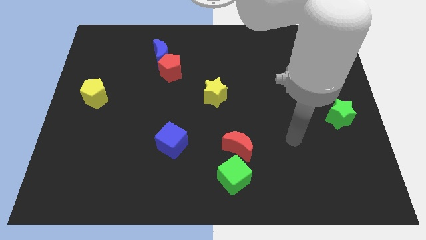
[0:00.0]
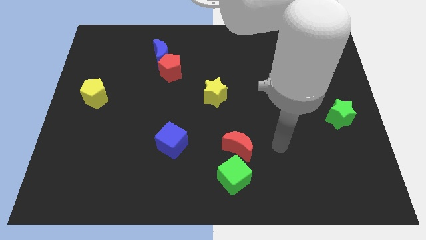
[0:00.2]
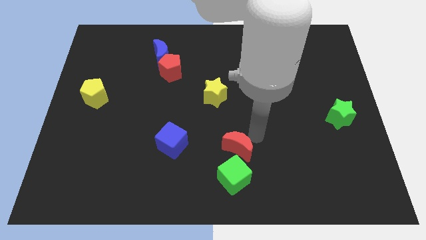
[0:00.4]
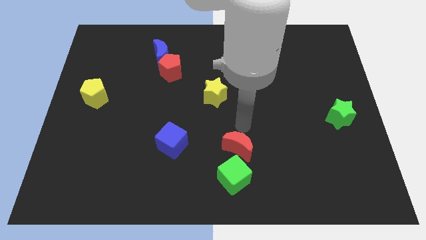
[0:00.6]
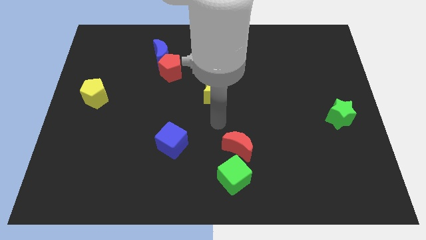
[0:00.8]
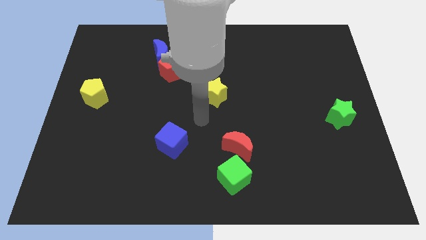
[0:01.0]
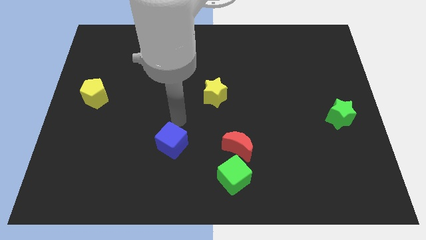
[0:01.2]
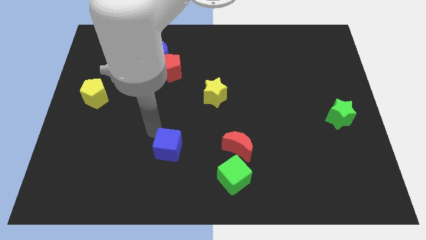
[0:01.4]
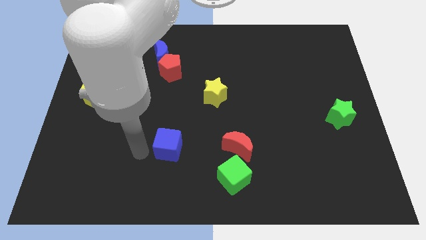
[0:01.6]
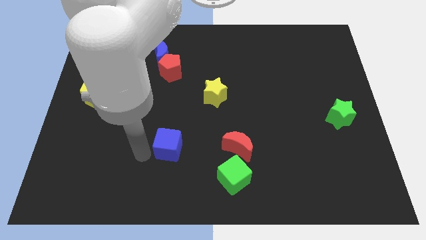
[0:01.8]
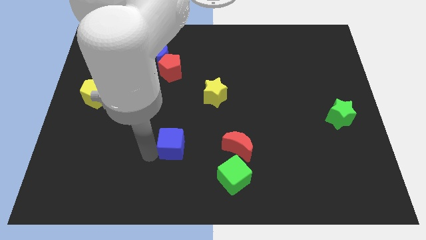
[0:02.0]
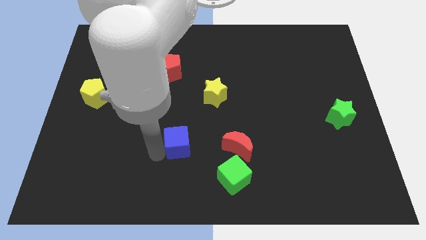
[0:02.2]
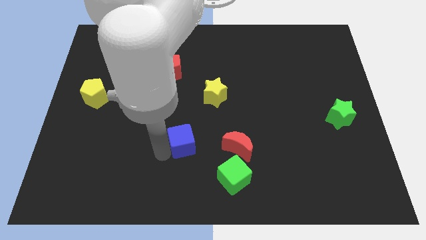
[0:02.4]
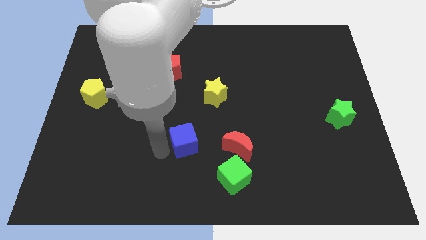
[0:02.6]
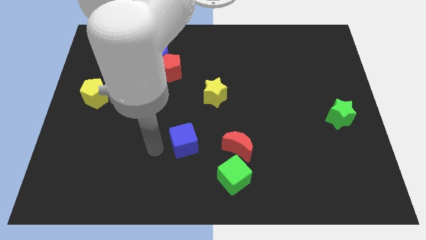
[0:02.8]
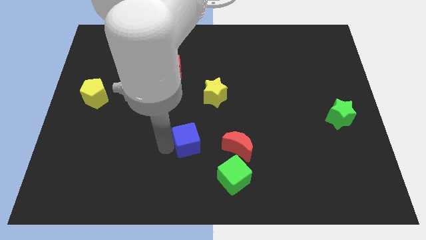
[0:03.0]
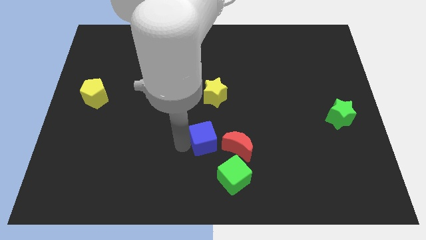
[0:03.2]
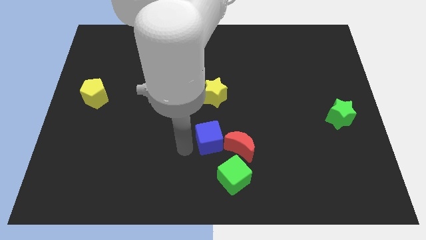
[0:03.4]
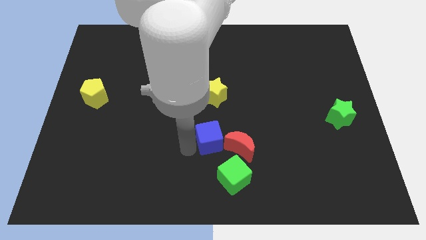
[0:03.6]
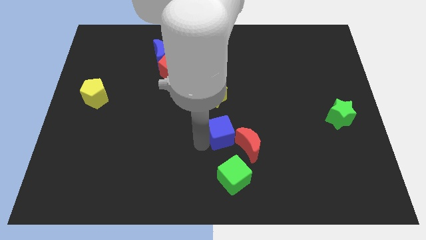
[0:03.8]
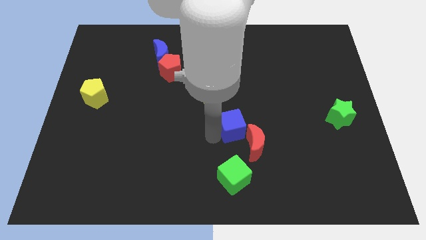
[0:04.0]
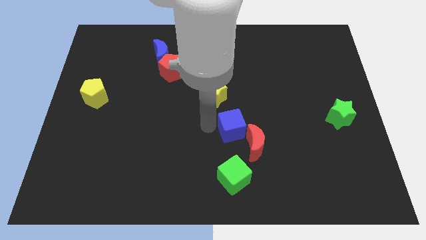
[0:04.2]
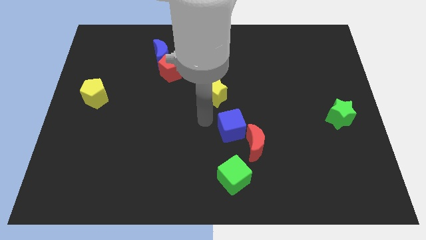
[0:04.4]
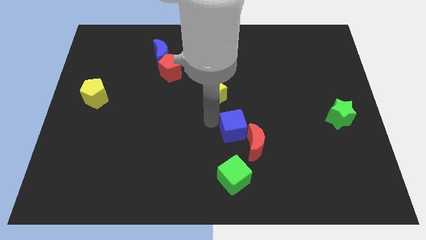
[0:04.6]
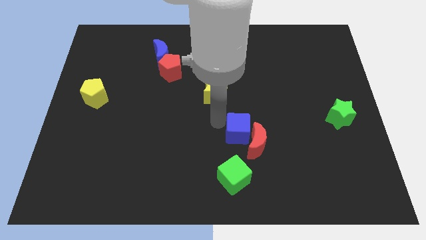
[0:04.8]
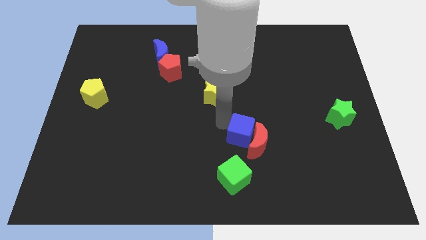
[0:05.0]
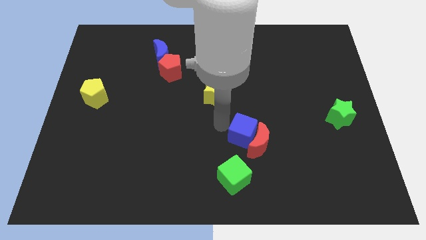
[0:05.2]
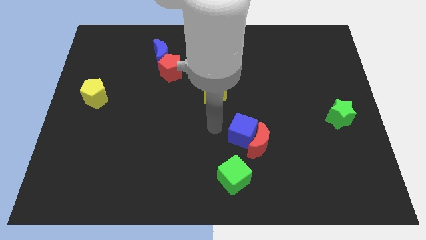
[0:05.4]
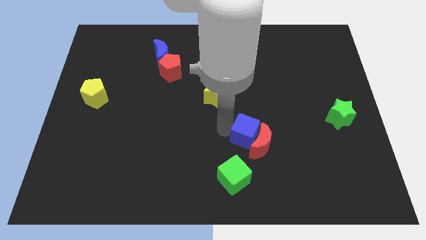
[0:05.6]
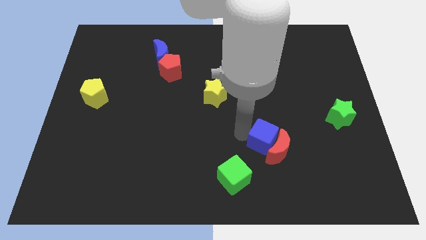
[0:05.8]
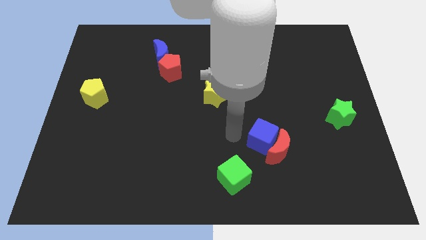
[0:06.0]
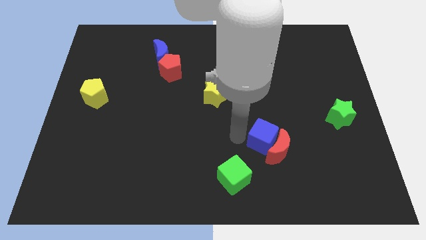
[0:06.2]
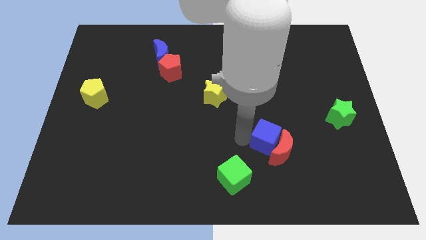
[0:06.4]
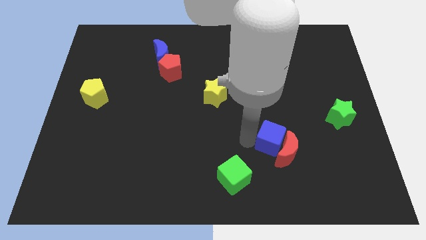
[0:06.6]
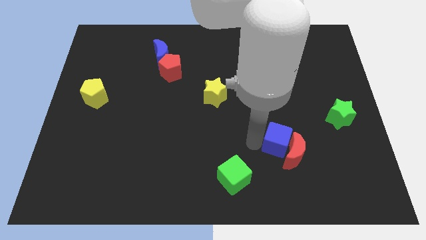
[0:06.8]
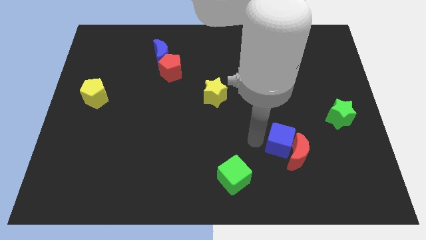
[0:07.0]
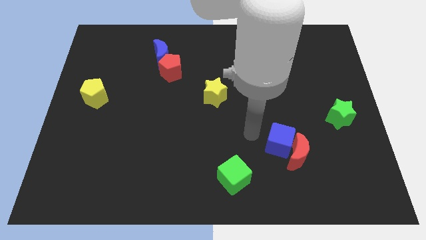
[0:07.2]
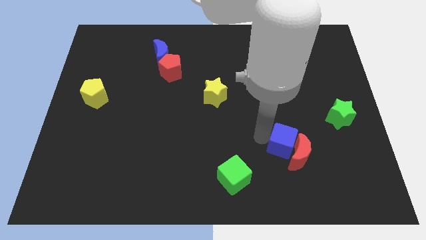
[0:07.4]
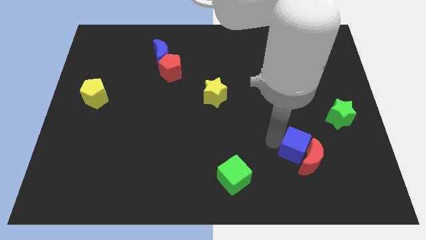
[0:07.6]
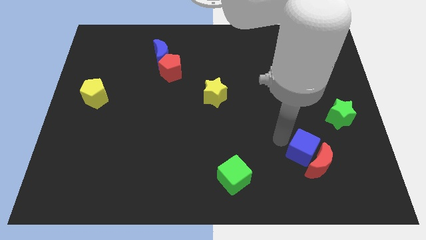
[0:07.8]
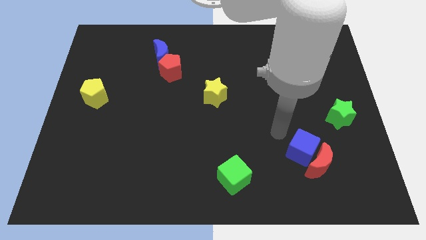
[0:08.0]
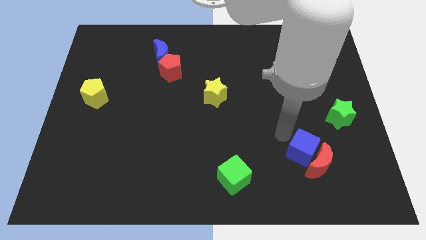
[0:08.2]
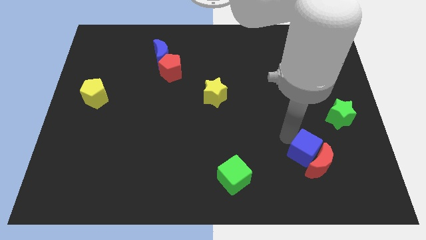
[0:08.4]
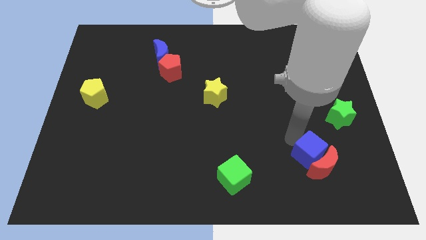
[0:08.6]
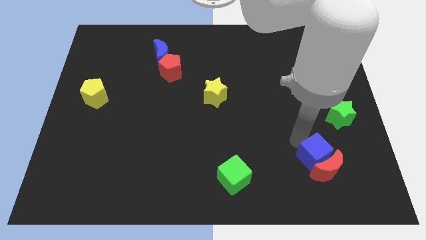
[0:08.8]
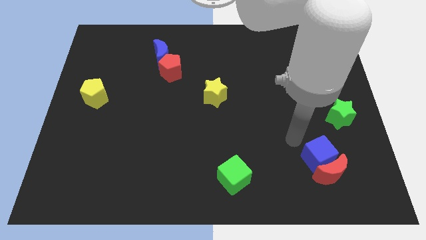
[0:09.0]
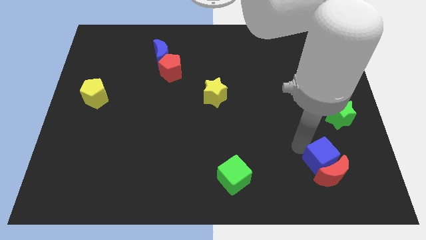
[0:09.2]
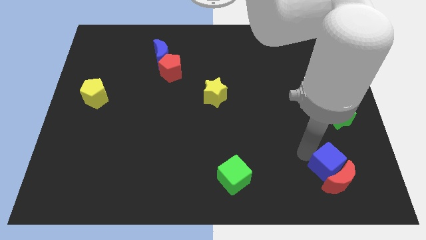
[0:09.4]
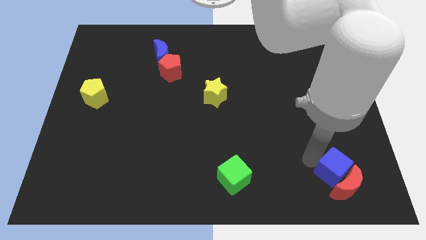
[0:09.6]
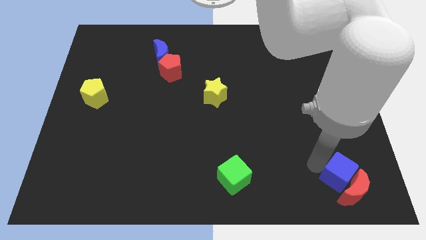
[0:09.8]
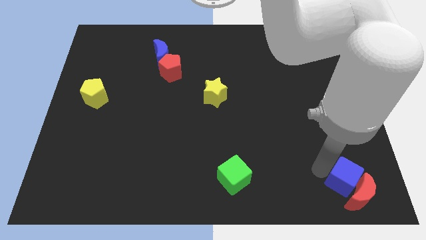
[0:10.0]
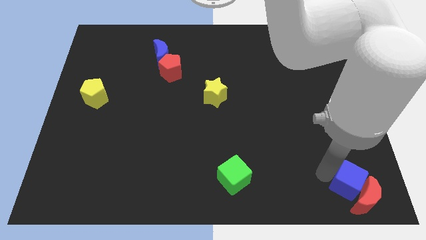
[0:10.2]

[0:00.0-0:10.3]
slide the blue cube to the bottom right

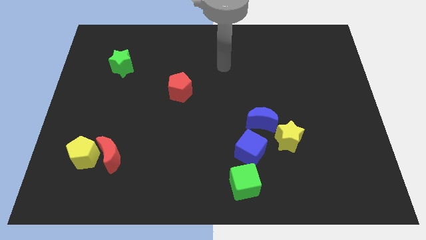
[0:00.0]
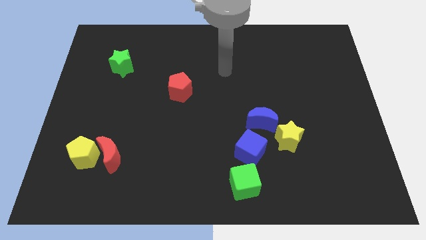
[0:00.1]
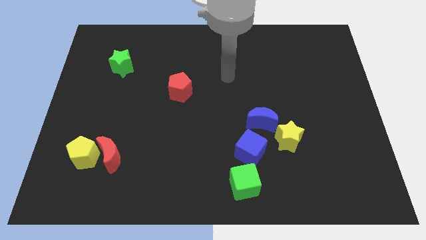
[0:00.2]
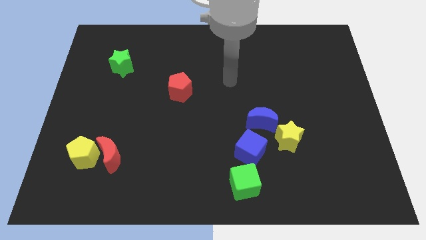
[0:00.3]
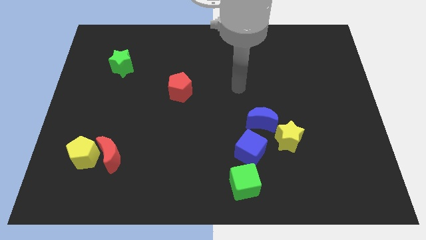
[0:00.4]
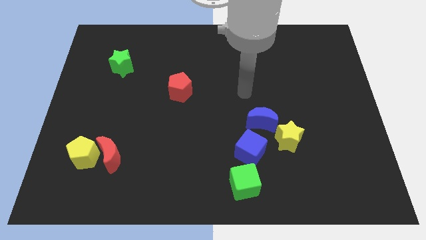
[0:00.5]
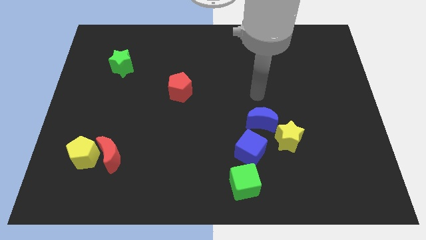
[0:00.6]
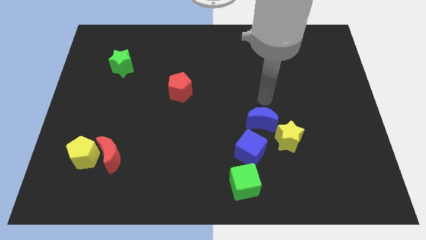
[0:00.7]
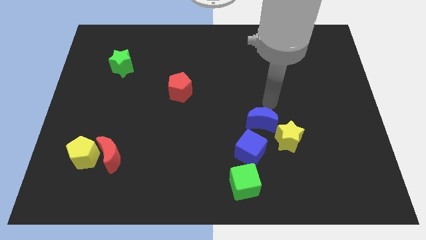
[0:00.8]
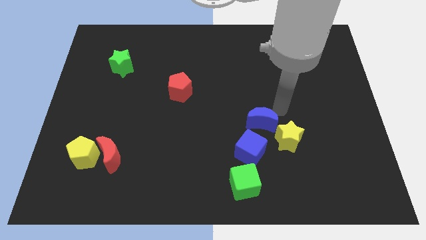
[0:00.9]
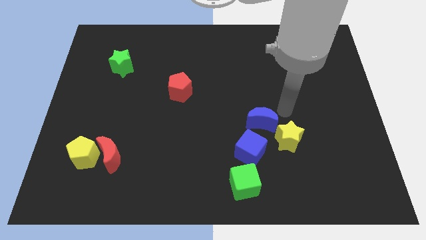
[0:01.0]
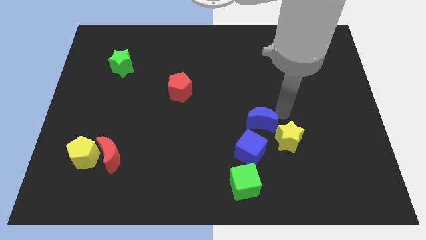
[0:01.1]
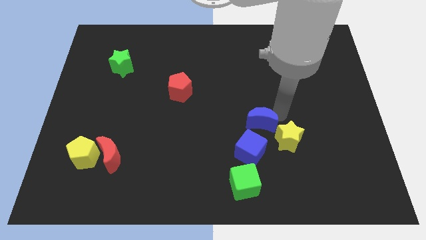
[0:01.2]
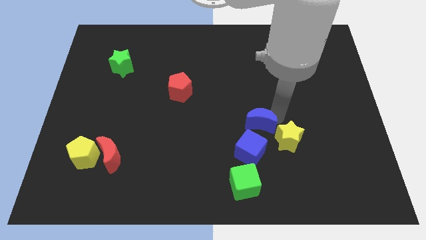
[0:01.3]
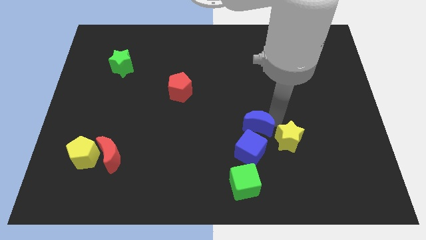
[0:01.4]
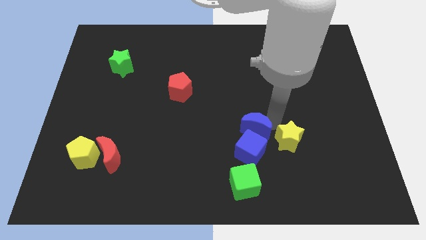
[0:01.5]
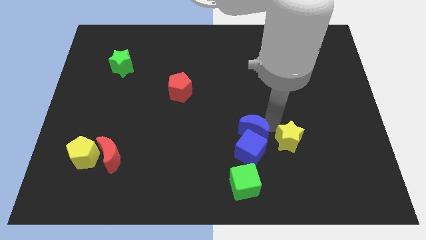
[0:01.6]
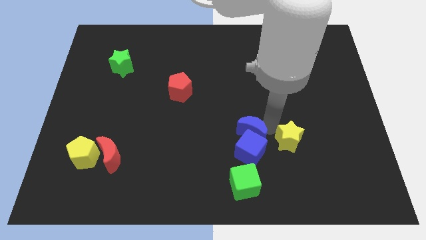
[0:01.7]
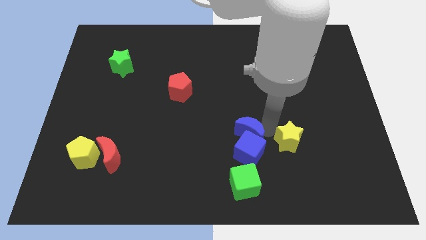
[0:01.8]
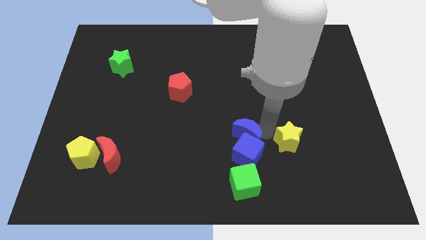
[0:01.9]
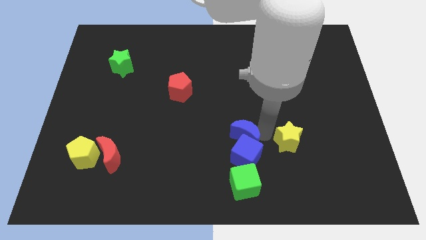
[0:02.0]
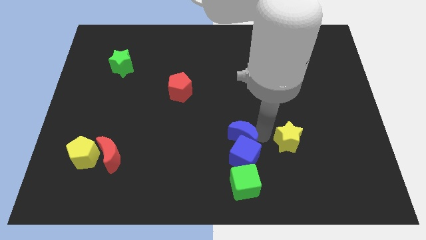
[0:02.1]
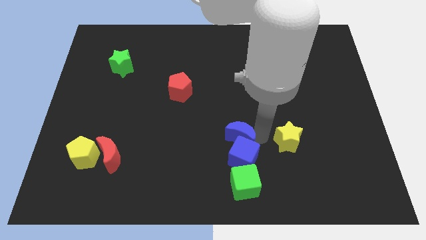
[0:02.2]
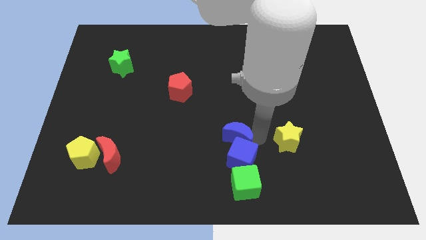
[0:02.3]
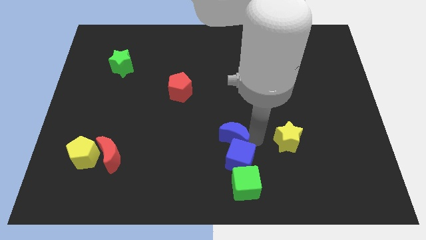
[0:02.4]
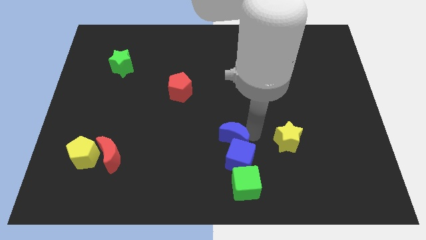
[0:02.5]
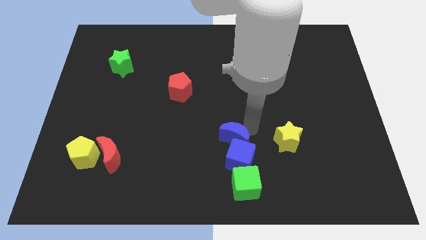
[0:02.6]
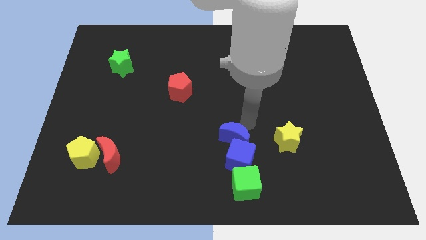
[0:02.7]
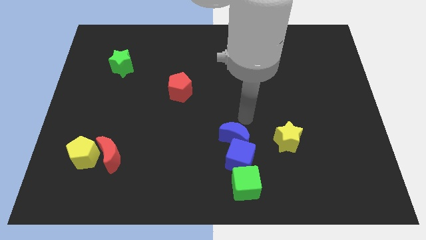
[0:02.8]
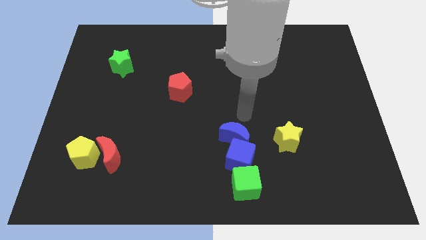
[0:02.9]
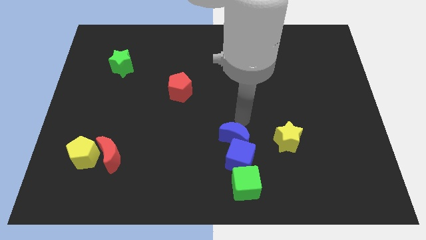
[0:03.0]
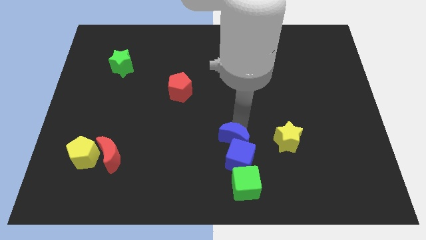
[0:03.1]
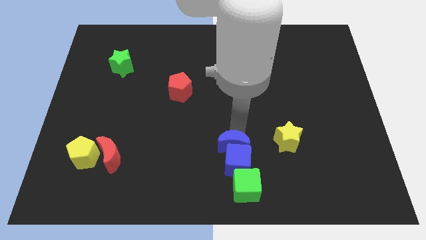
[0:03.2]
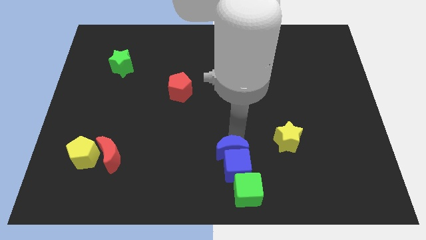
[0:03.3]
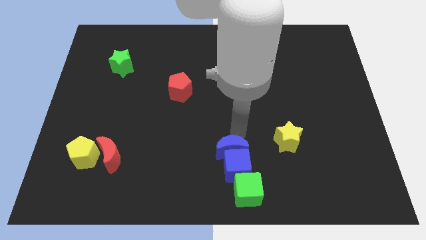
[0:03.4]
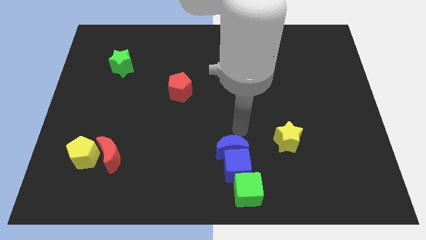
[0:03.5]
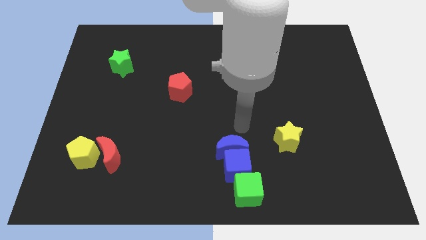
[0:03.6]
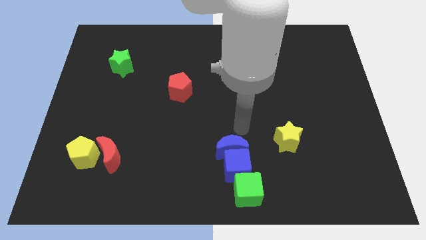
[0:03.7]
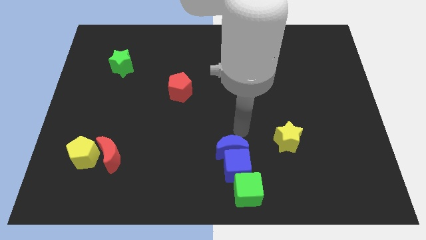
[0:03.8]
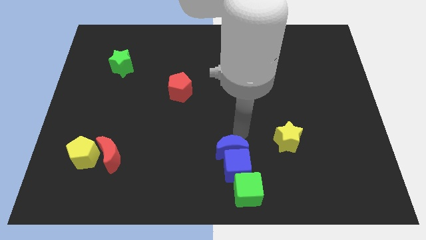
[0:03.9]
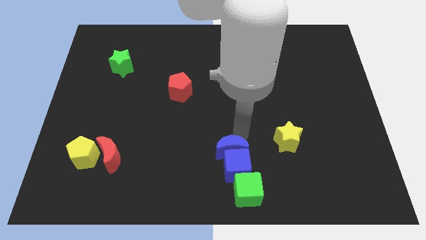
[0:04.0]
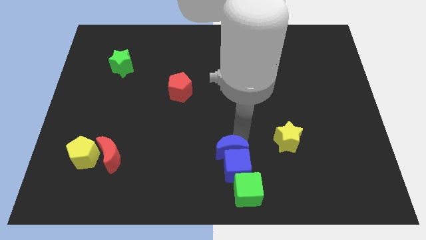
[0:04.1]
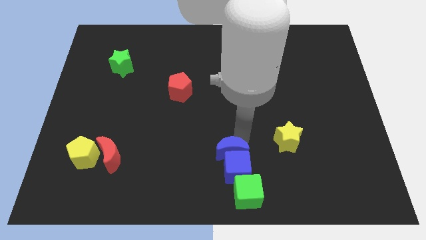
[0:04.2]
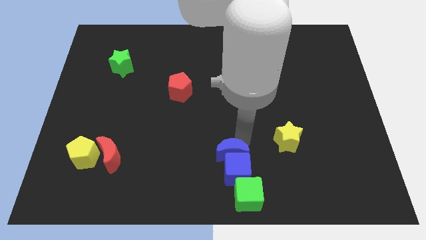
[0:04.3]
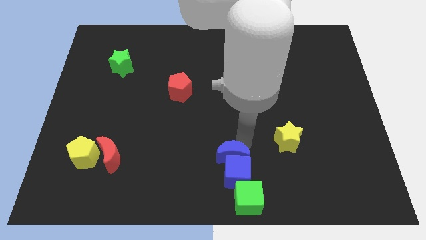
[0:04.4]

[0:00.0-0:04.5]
slide the blue moon to the bottom
